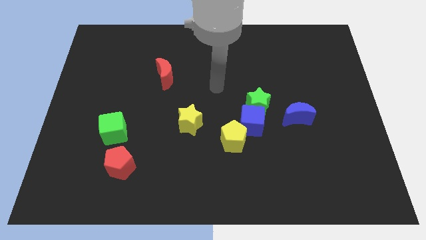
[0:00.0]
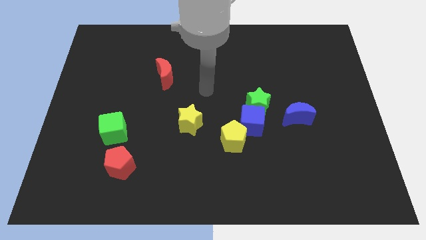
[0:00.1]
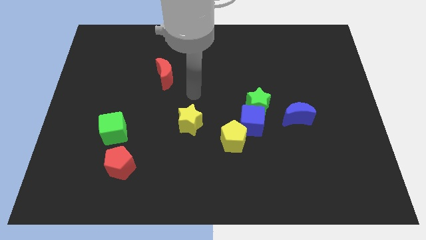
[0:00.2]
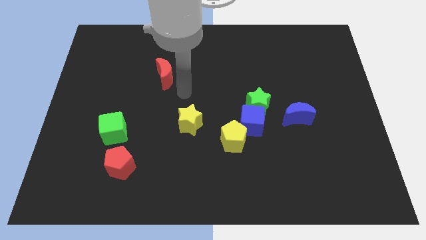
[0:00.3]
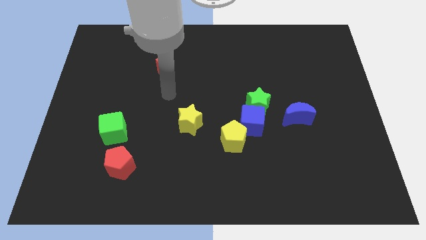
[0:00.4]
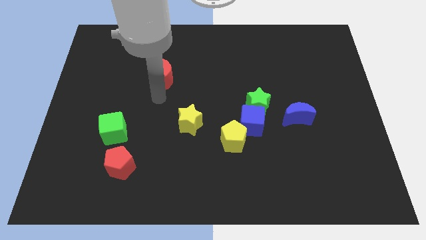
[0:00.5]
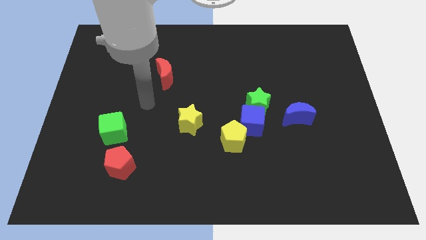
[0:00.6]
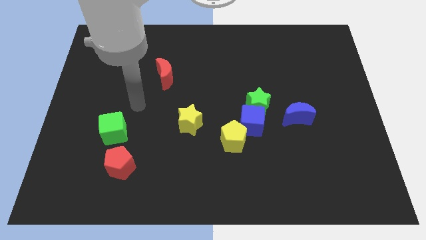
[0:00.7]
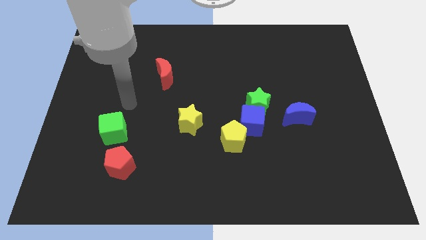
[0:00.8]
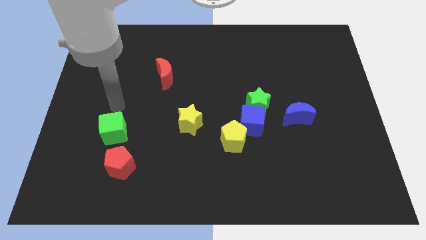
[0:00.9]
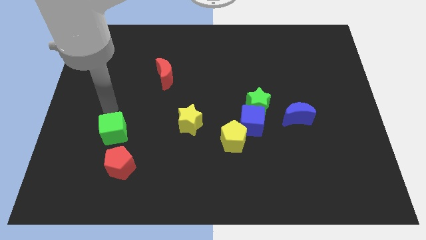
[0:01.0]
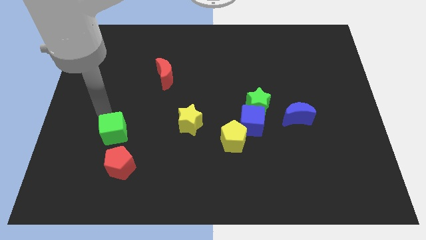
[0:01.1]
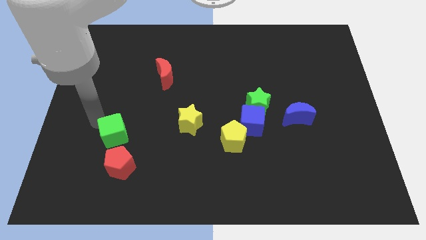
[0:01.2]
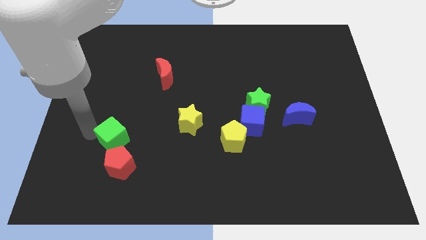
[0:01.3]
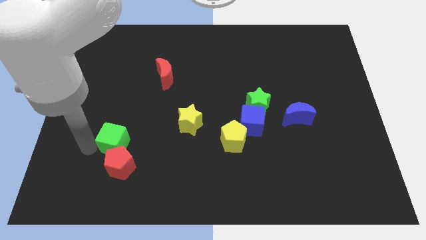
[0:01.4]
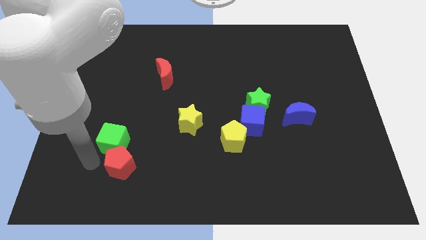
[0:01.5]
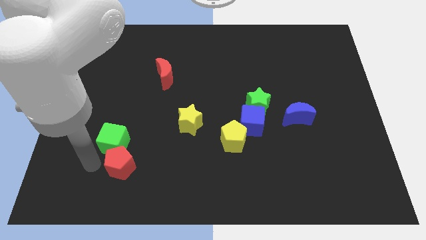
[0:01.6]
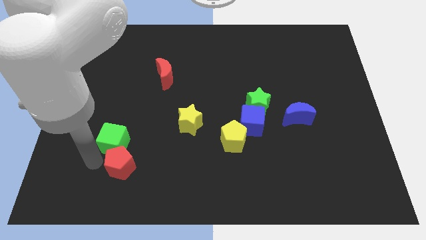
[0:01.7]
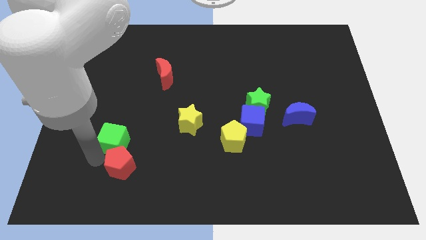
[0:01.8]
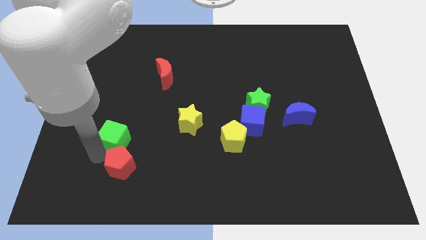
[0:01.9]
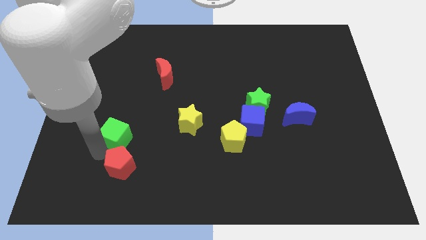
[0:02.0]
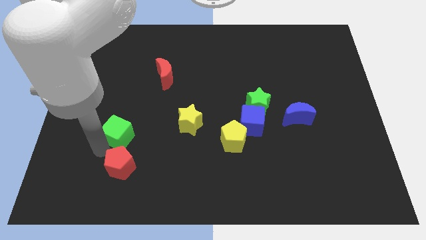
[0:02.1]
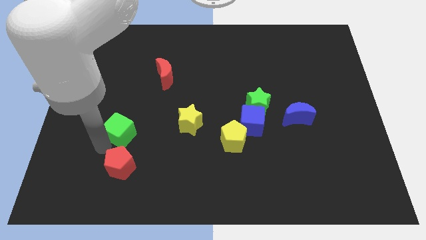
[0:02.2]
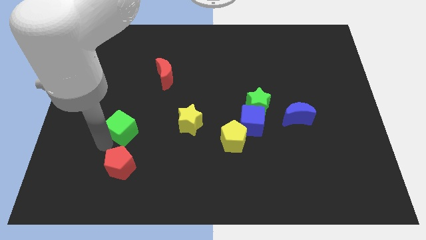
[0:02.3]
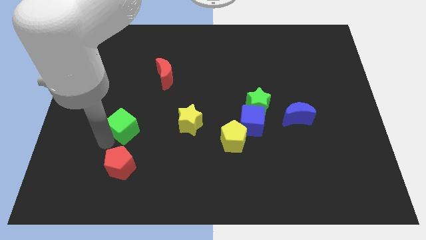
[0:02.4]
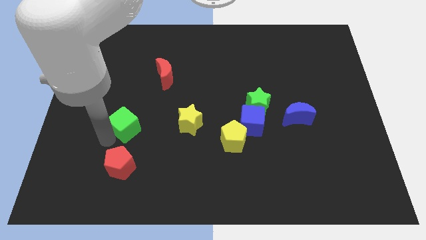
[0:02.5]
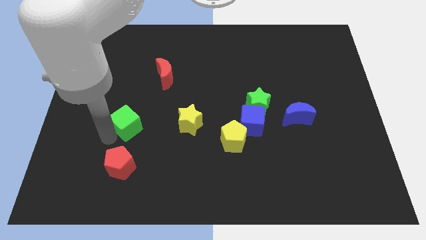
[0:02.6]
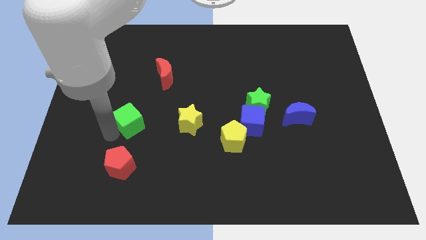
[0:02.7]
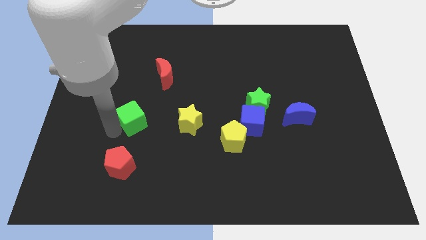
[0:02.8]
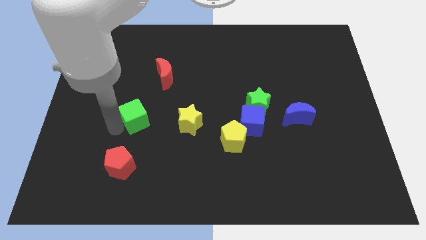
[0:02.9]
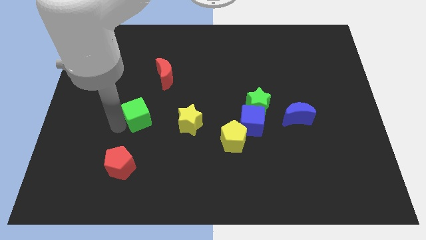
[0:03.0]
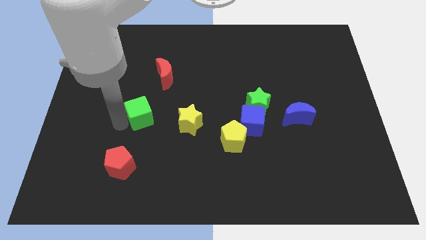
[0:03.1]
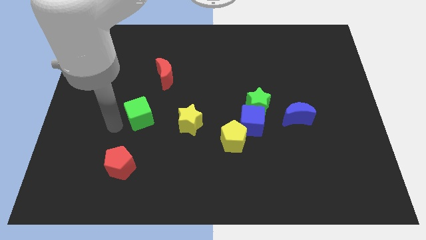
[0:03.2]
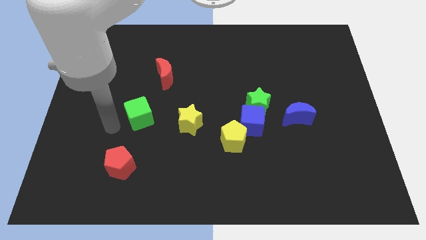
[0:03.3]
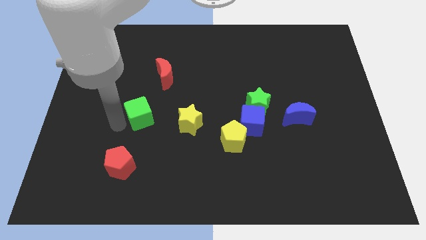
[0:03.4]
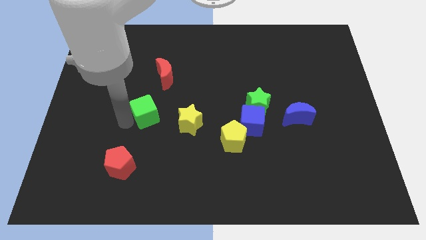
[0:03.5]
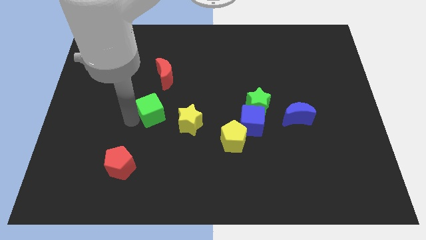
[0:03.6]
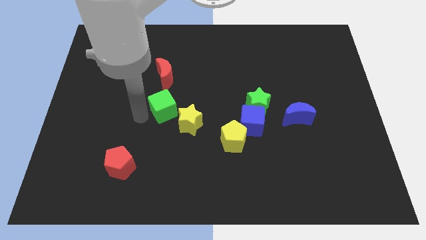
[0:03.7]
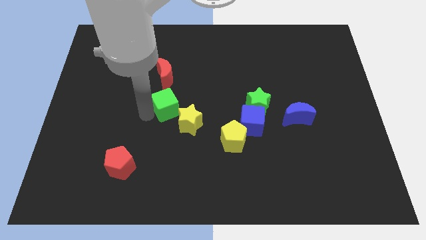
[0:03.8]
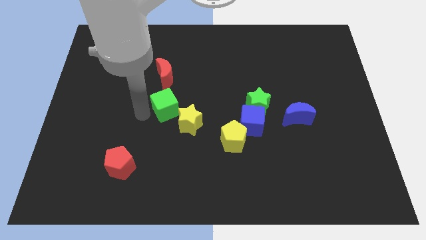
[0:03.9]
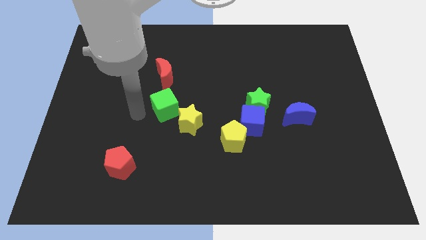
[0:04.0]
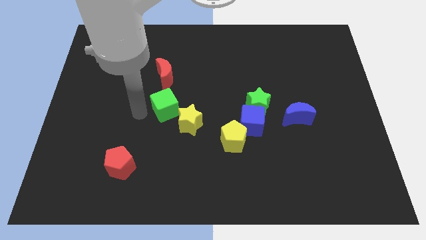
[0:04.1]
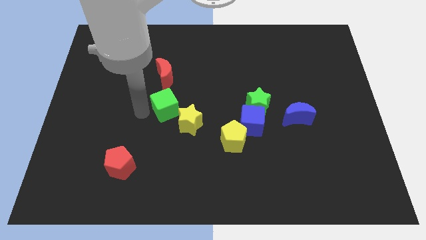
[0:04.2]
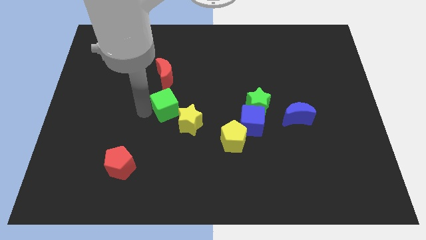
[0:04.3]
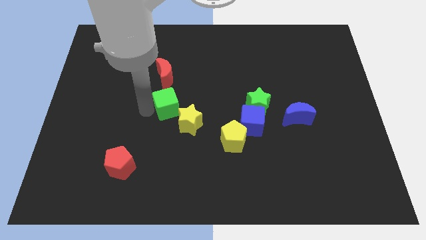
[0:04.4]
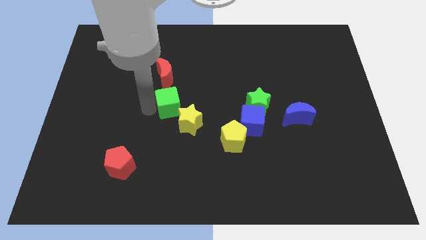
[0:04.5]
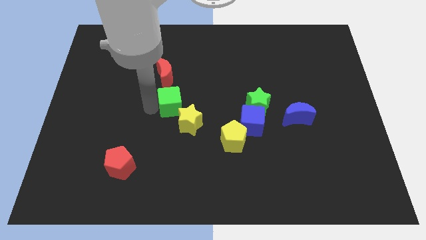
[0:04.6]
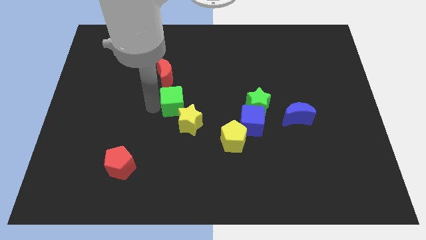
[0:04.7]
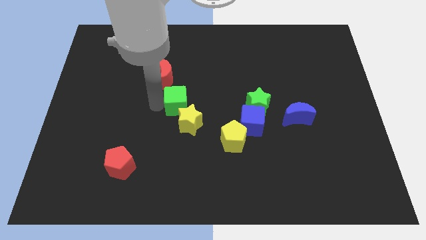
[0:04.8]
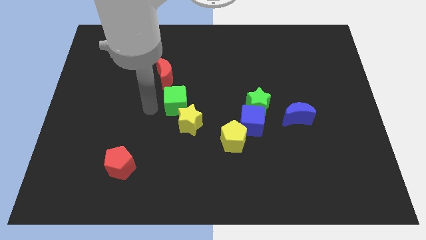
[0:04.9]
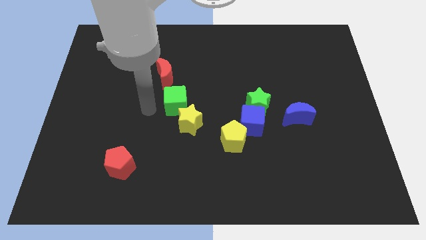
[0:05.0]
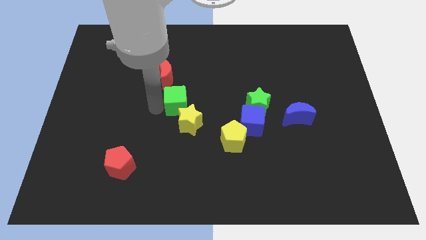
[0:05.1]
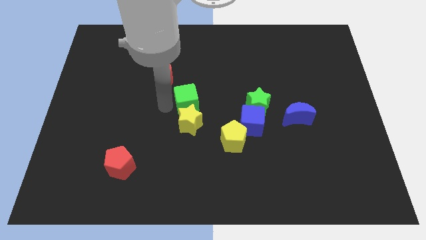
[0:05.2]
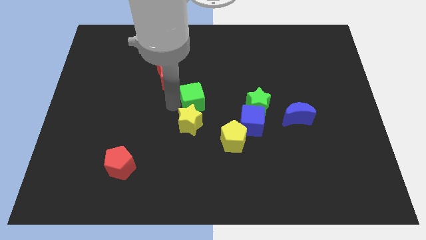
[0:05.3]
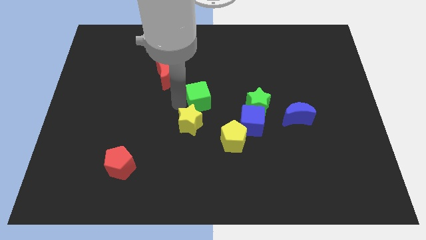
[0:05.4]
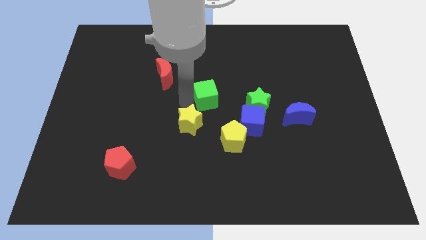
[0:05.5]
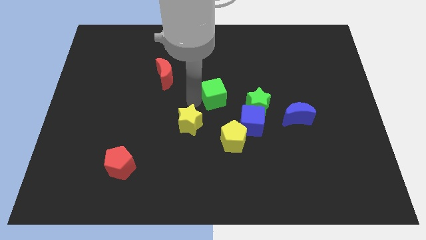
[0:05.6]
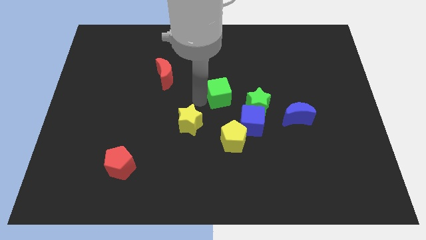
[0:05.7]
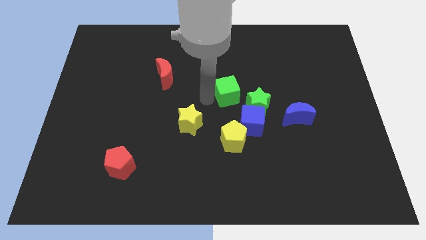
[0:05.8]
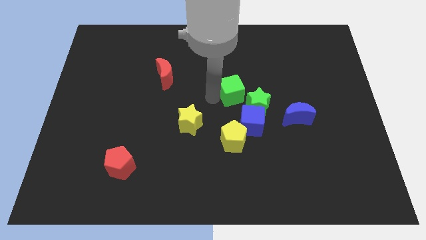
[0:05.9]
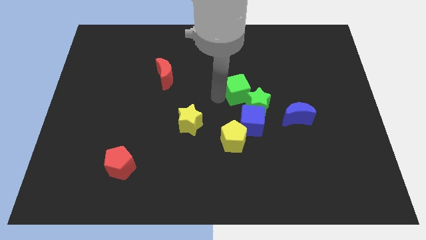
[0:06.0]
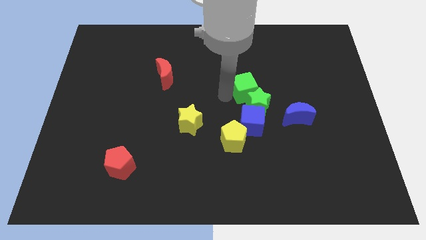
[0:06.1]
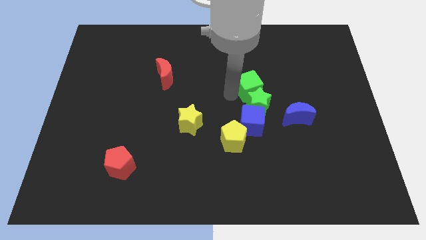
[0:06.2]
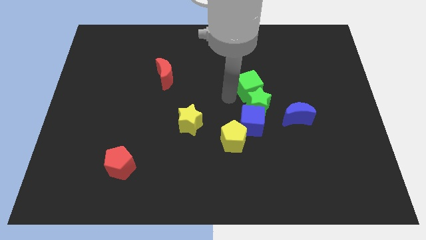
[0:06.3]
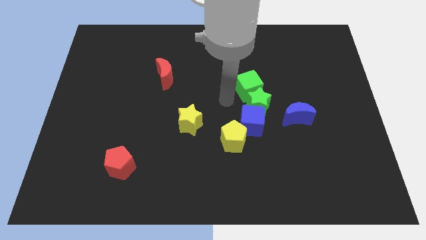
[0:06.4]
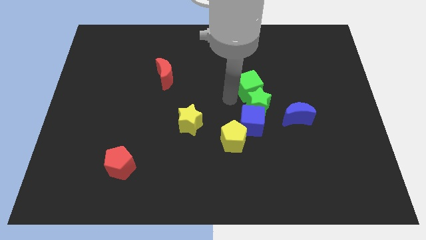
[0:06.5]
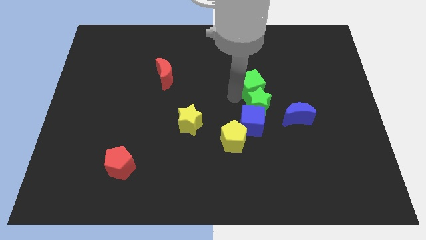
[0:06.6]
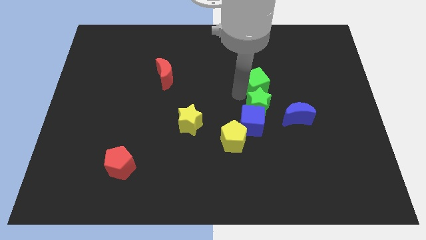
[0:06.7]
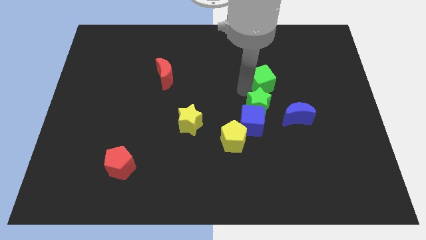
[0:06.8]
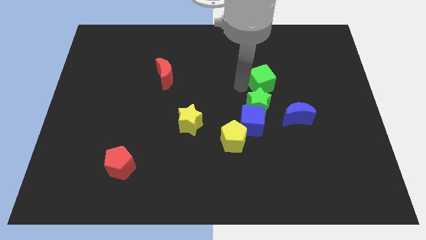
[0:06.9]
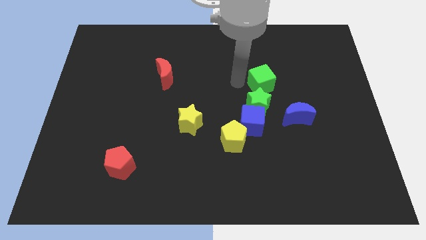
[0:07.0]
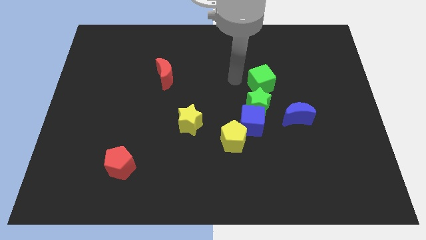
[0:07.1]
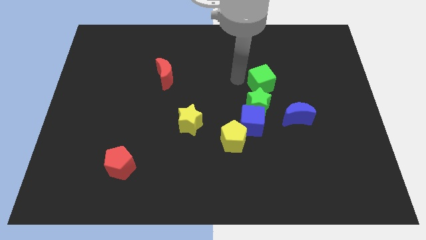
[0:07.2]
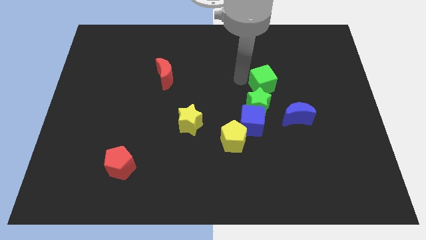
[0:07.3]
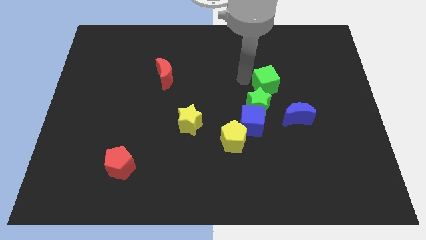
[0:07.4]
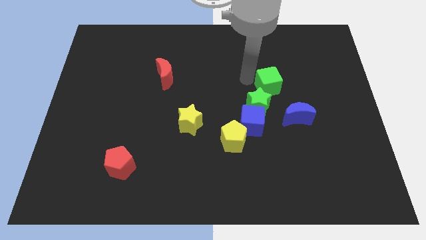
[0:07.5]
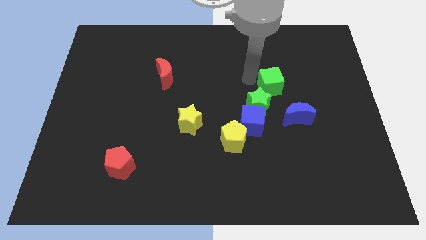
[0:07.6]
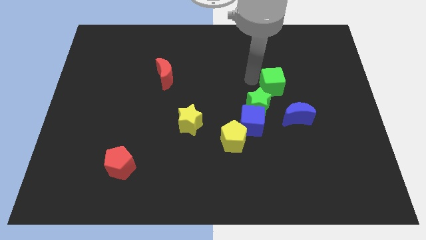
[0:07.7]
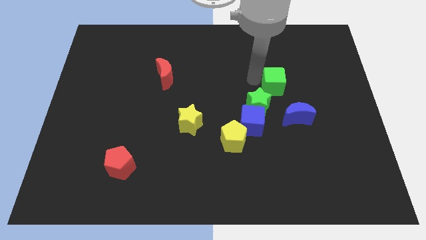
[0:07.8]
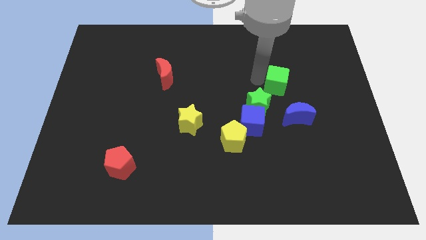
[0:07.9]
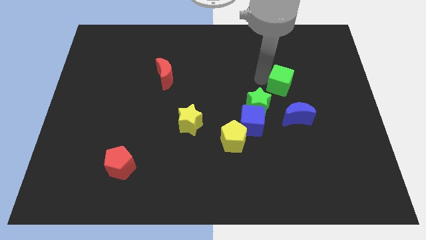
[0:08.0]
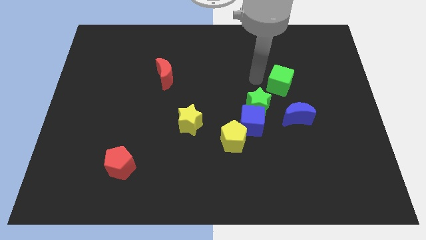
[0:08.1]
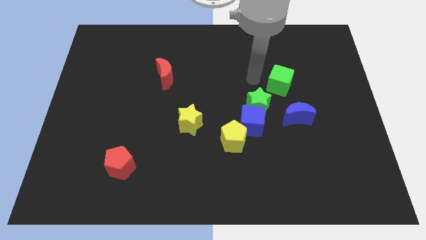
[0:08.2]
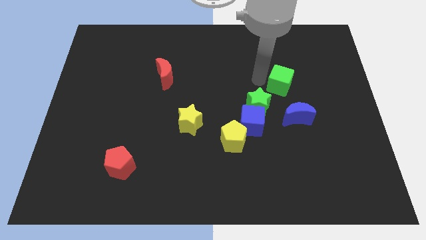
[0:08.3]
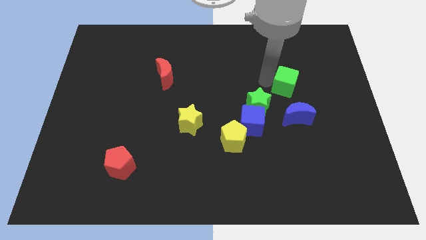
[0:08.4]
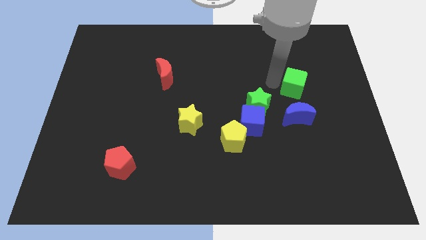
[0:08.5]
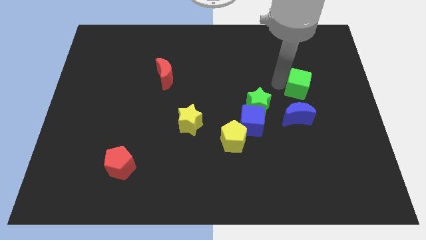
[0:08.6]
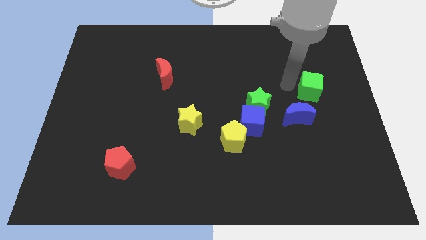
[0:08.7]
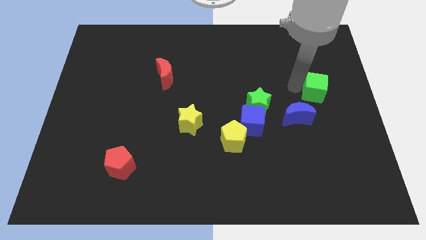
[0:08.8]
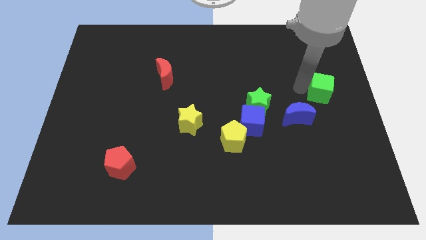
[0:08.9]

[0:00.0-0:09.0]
push the green cube to the center right
